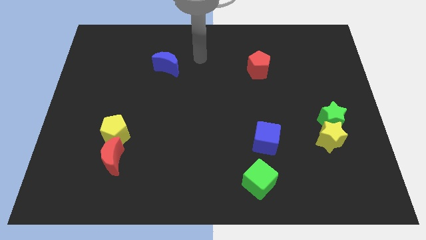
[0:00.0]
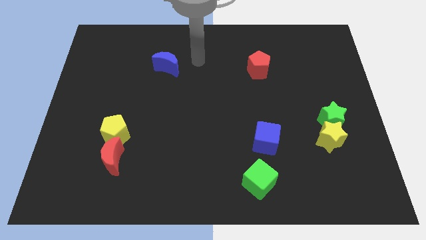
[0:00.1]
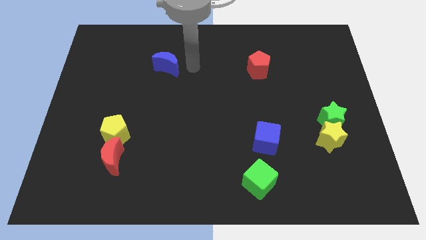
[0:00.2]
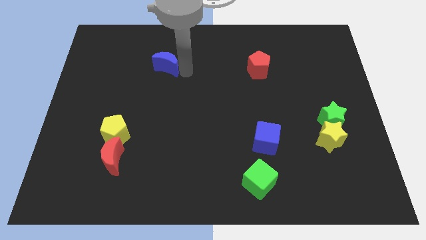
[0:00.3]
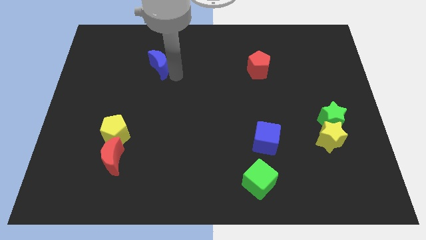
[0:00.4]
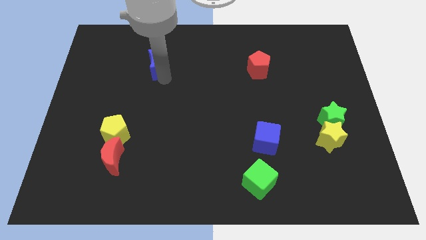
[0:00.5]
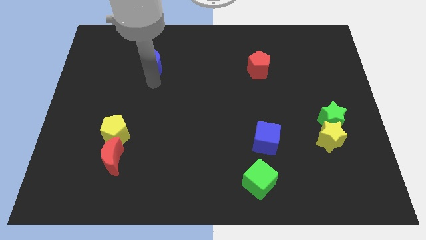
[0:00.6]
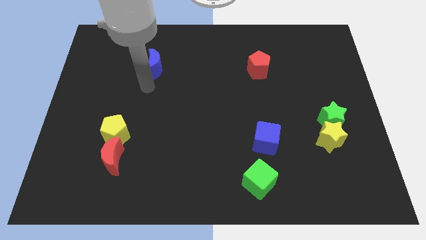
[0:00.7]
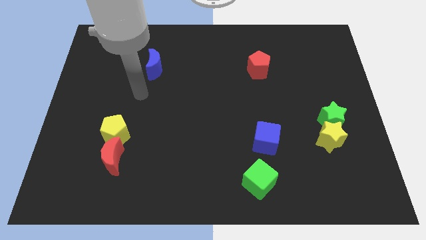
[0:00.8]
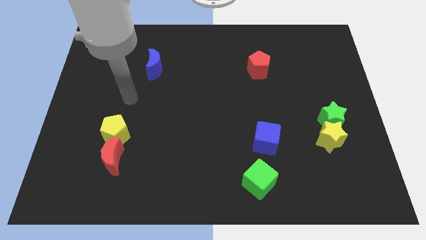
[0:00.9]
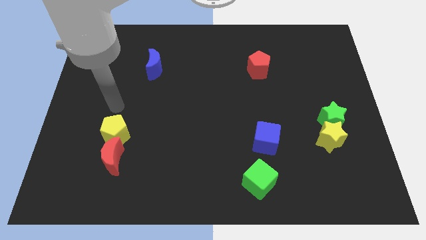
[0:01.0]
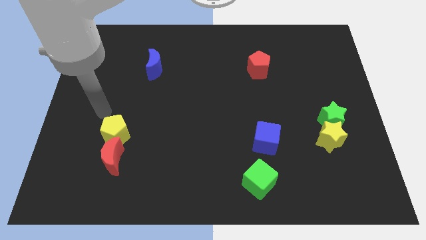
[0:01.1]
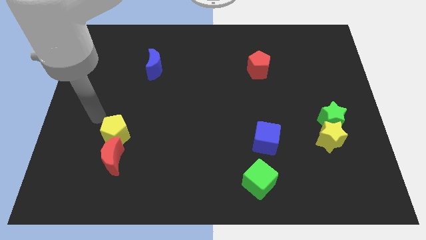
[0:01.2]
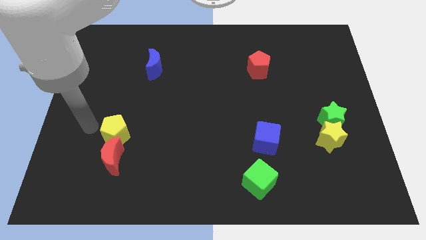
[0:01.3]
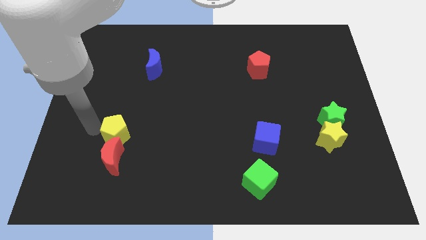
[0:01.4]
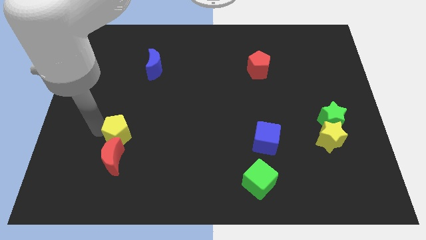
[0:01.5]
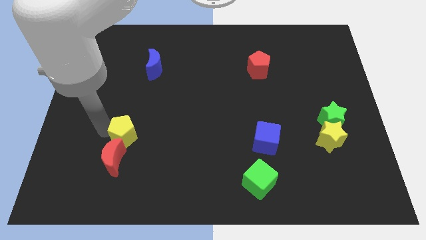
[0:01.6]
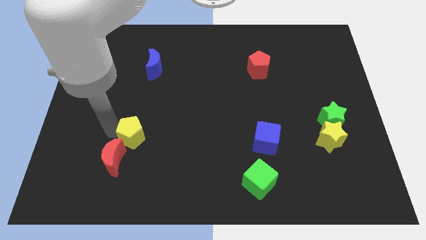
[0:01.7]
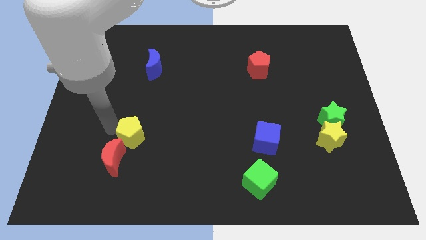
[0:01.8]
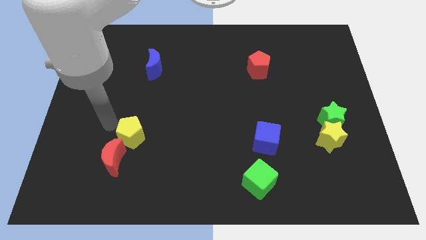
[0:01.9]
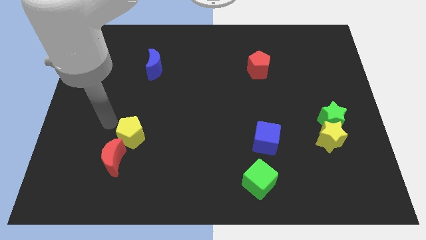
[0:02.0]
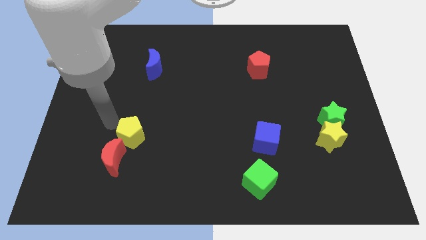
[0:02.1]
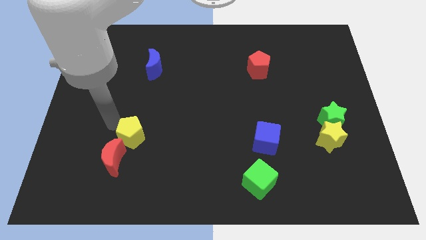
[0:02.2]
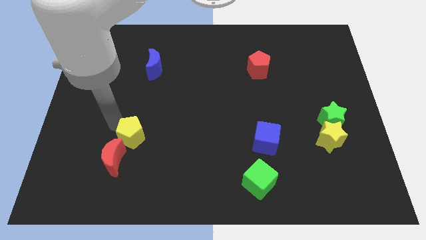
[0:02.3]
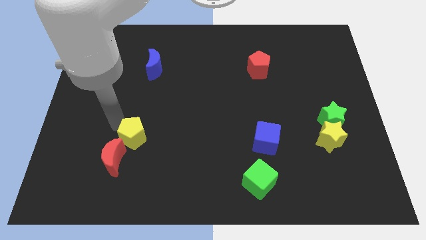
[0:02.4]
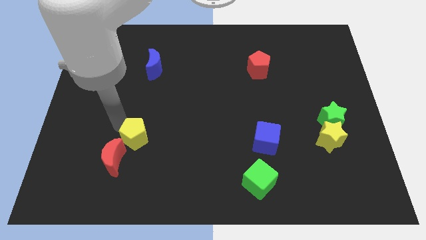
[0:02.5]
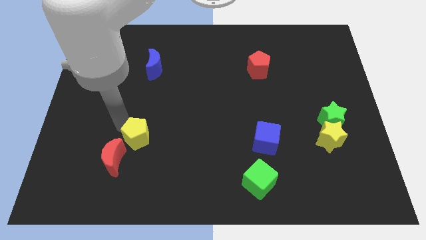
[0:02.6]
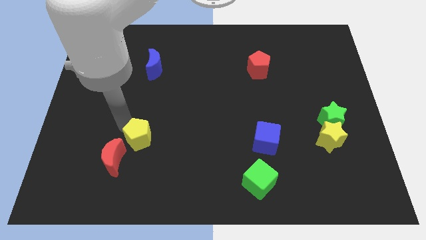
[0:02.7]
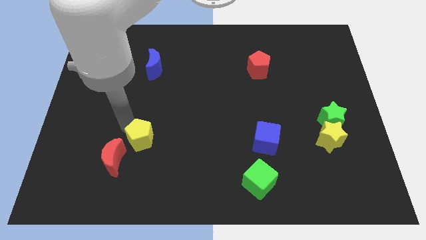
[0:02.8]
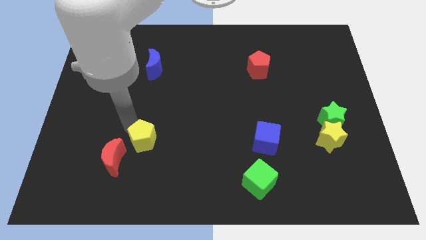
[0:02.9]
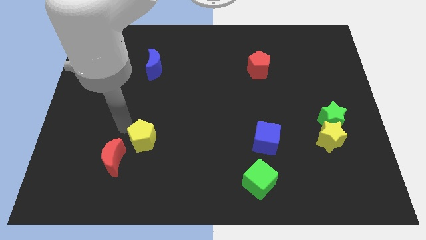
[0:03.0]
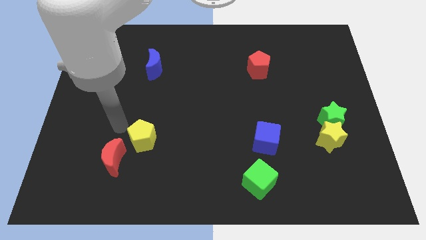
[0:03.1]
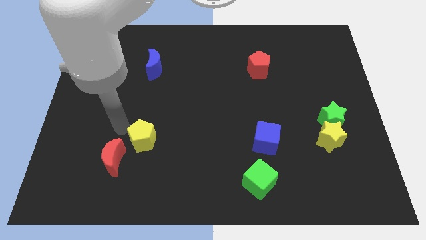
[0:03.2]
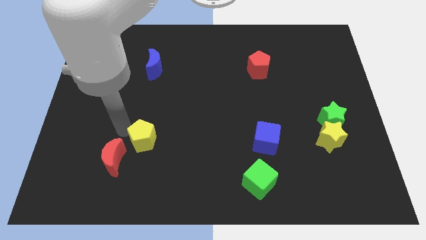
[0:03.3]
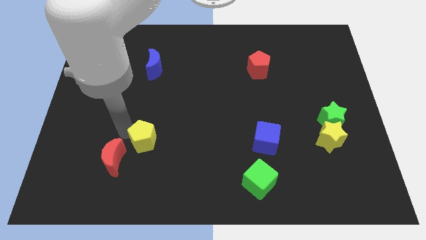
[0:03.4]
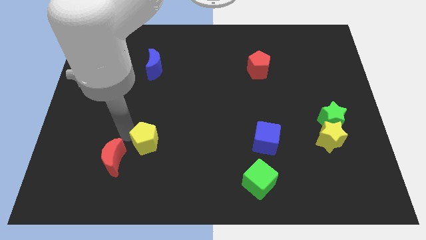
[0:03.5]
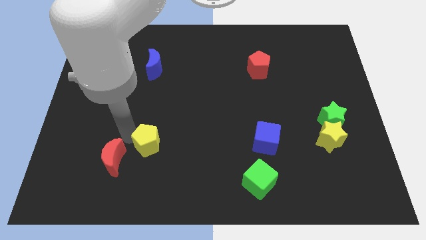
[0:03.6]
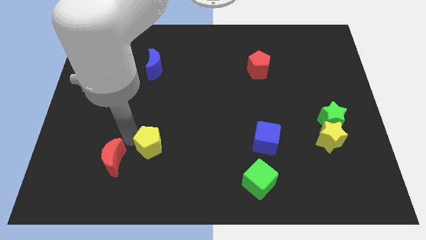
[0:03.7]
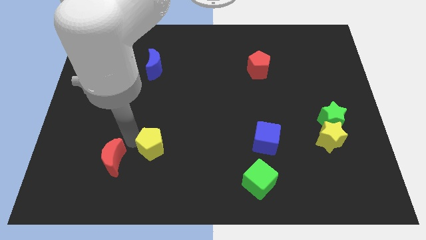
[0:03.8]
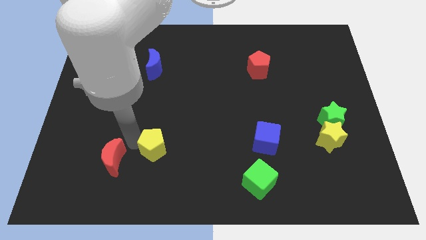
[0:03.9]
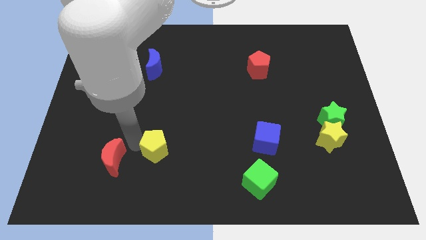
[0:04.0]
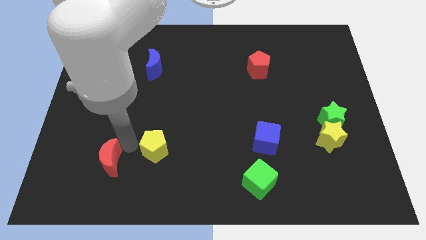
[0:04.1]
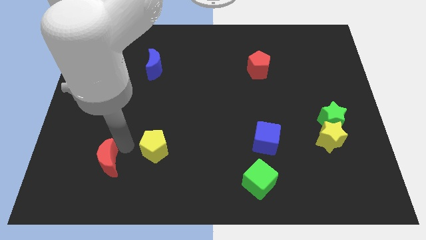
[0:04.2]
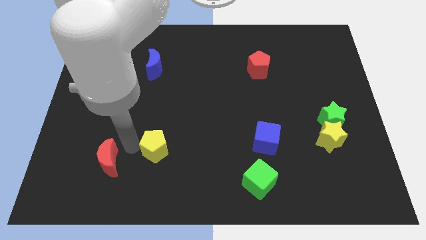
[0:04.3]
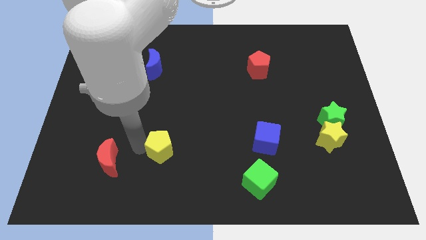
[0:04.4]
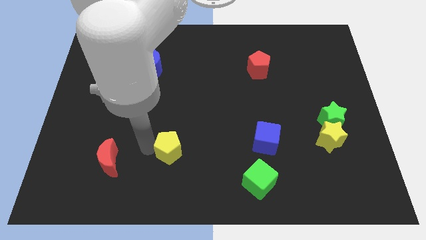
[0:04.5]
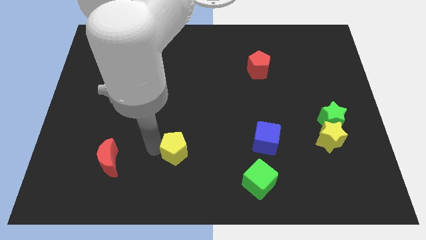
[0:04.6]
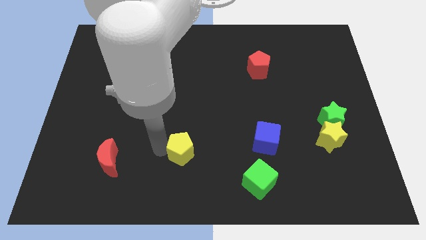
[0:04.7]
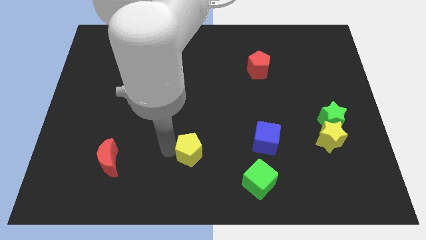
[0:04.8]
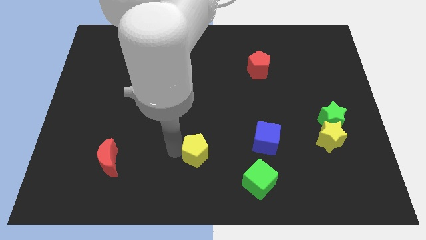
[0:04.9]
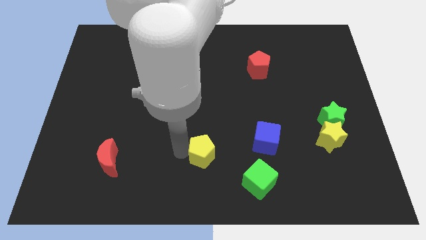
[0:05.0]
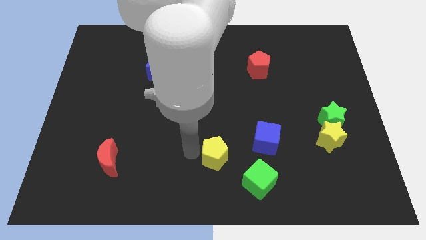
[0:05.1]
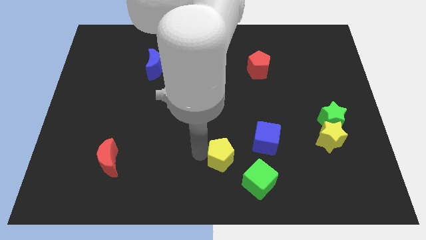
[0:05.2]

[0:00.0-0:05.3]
slide the yellow pentagon diagonally down and to the left of the blue cube
